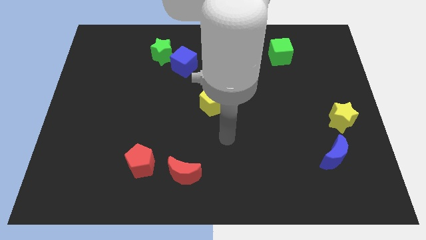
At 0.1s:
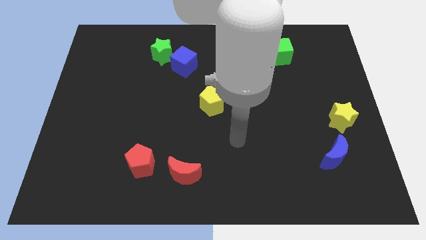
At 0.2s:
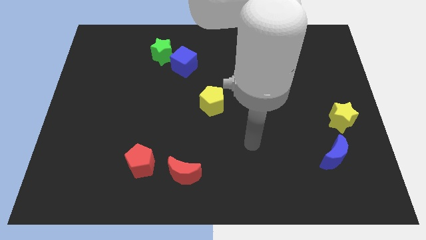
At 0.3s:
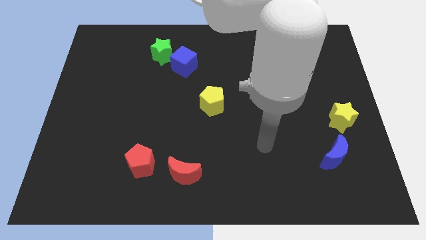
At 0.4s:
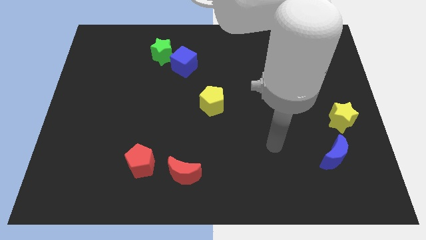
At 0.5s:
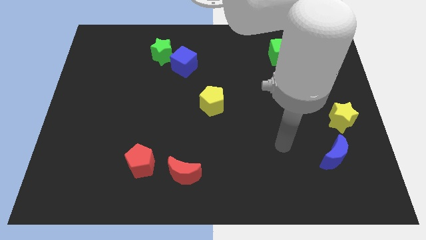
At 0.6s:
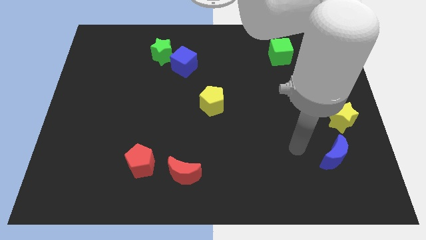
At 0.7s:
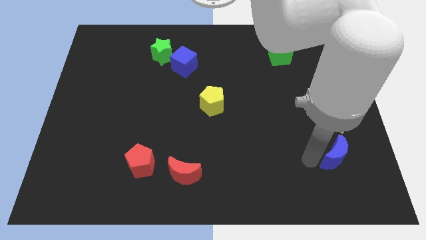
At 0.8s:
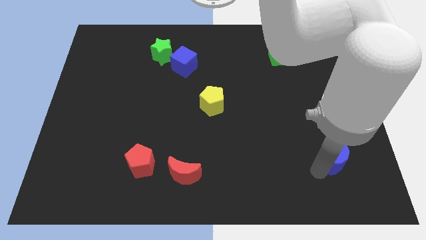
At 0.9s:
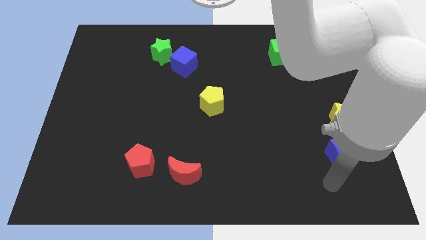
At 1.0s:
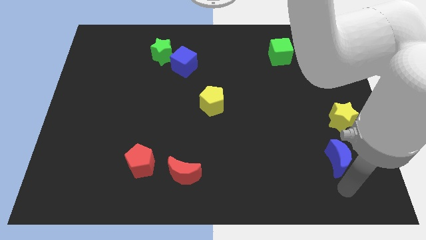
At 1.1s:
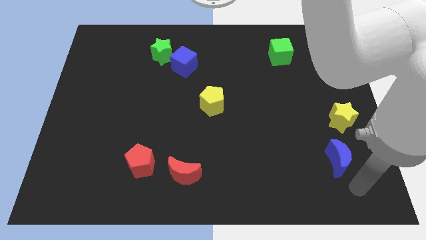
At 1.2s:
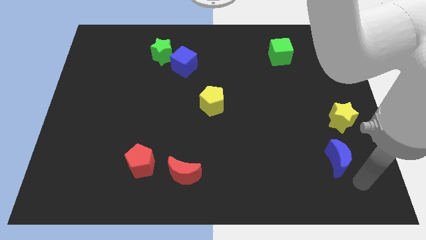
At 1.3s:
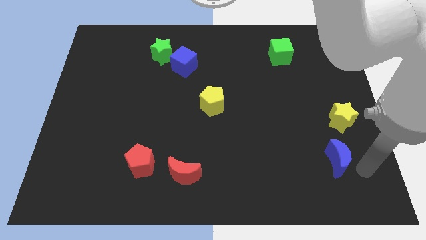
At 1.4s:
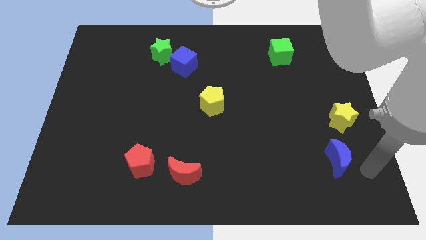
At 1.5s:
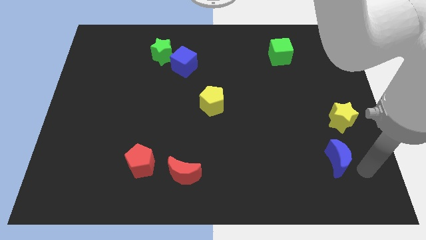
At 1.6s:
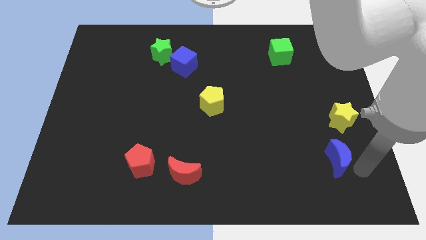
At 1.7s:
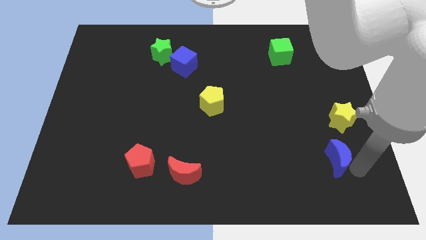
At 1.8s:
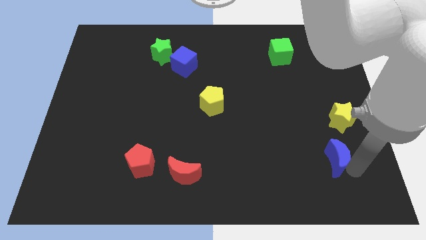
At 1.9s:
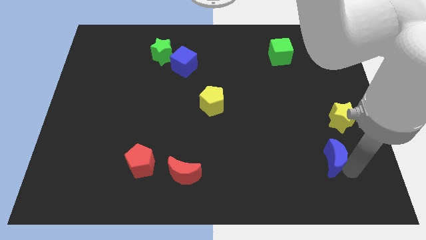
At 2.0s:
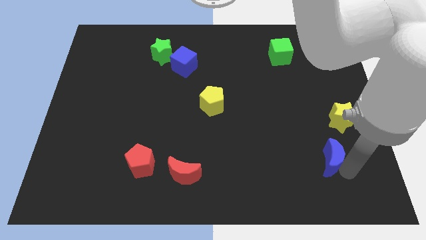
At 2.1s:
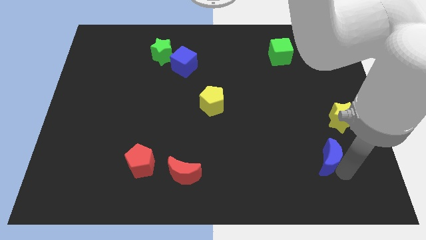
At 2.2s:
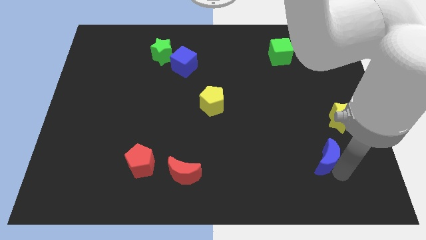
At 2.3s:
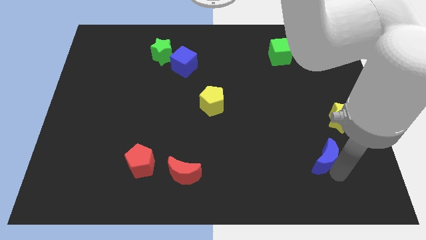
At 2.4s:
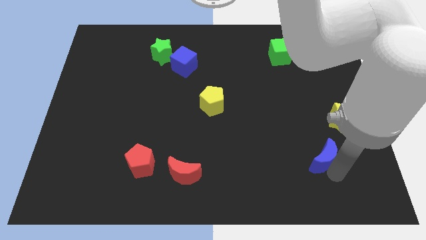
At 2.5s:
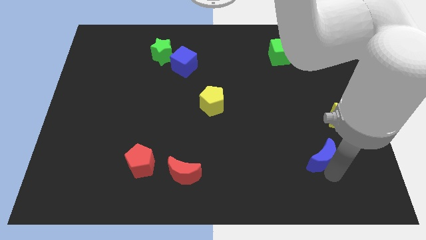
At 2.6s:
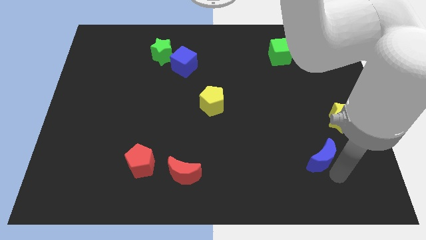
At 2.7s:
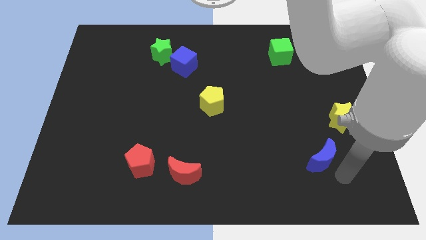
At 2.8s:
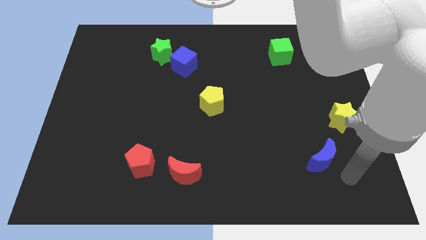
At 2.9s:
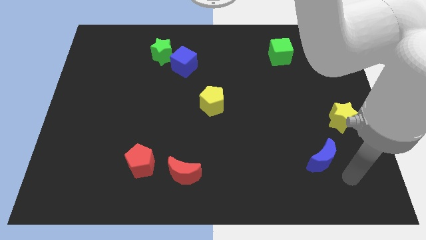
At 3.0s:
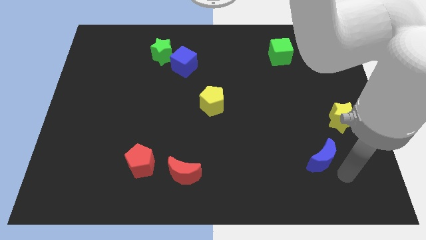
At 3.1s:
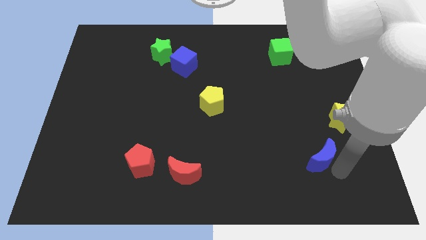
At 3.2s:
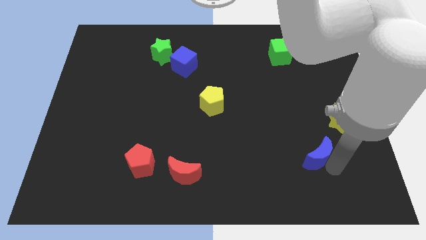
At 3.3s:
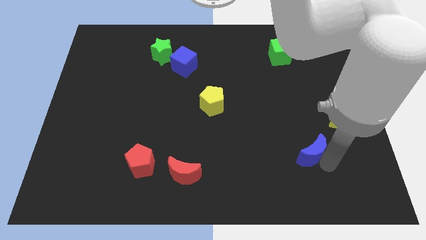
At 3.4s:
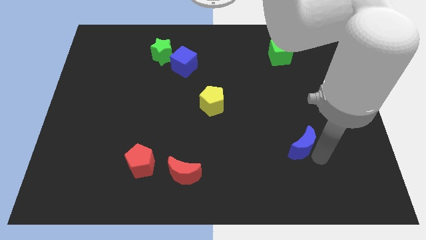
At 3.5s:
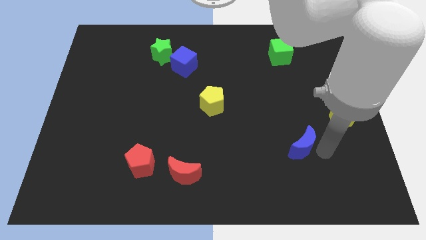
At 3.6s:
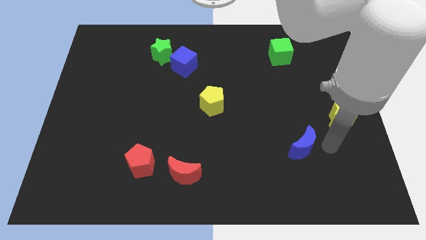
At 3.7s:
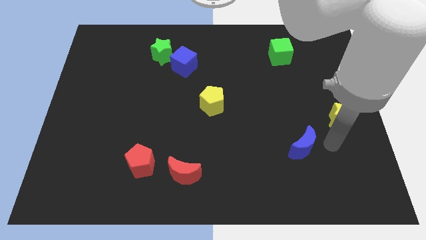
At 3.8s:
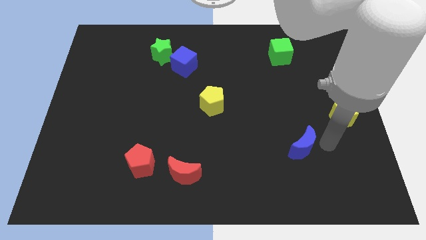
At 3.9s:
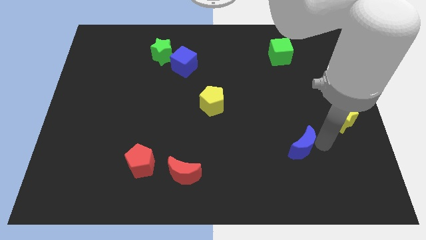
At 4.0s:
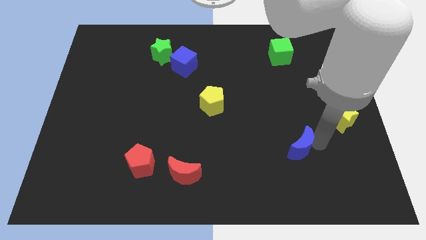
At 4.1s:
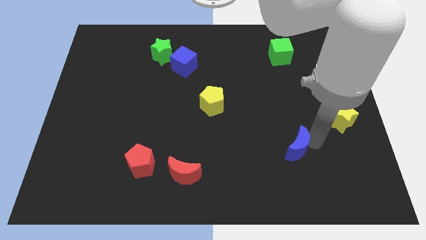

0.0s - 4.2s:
push the blue moon left a little bit

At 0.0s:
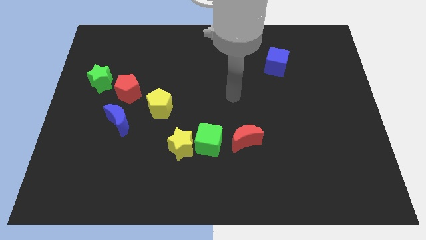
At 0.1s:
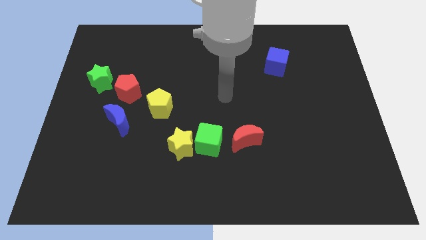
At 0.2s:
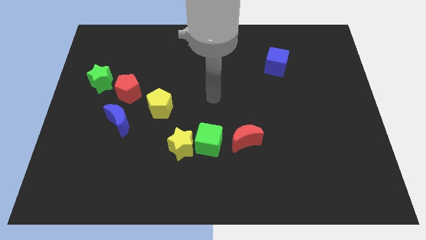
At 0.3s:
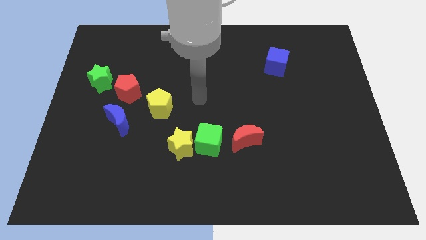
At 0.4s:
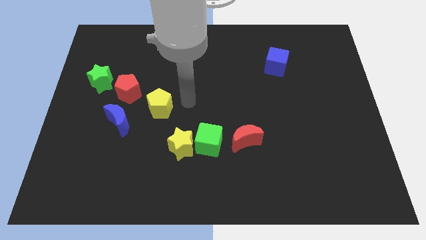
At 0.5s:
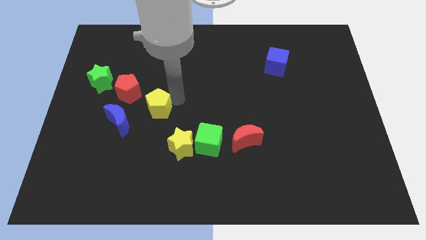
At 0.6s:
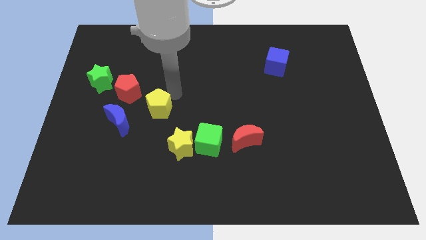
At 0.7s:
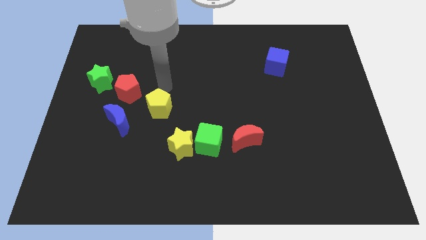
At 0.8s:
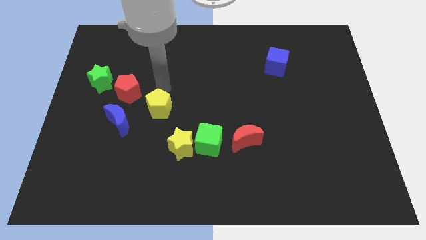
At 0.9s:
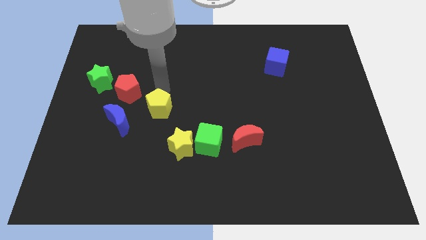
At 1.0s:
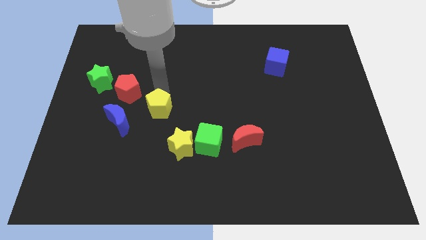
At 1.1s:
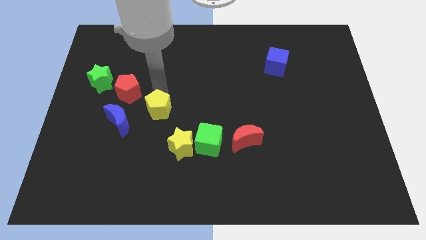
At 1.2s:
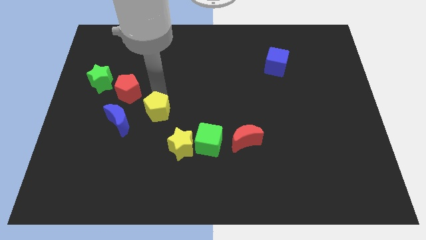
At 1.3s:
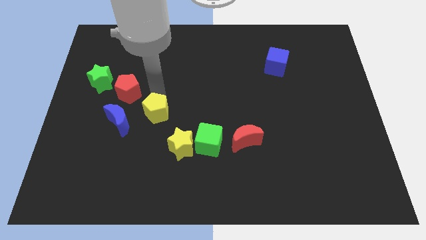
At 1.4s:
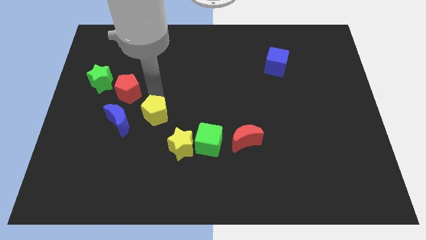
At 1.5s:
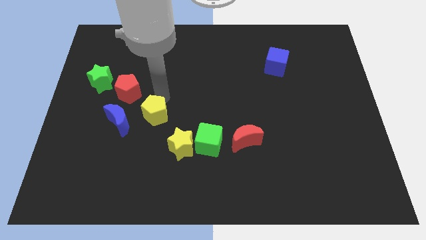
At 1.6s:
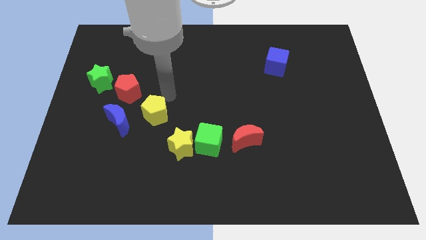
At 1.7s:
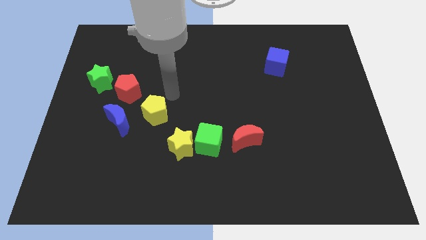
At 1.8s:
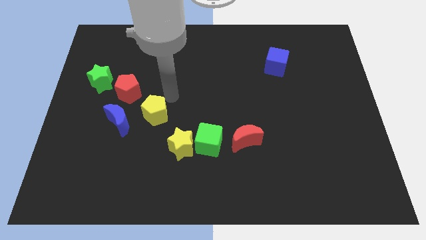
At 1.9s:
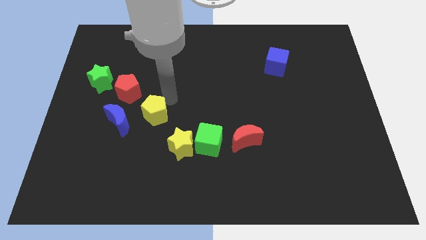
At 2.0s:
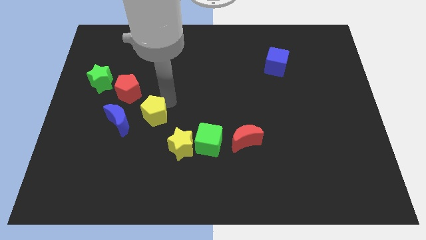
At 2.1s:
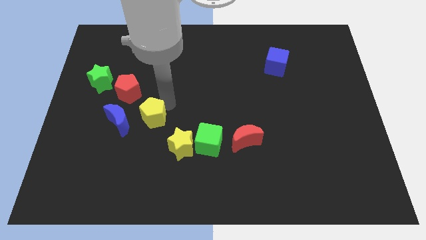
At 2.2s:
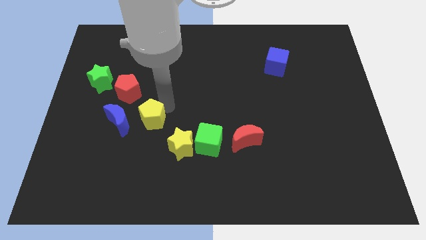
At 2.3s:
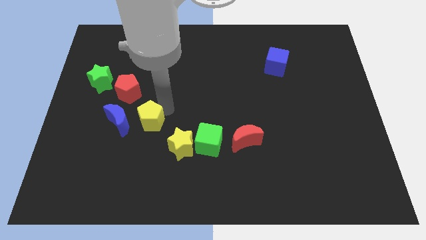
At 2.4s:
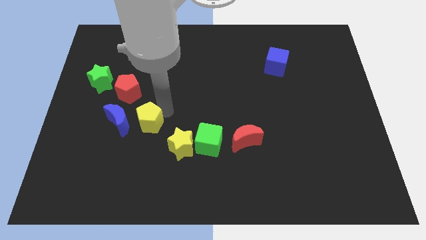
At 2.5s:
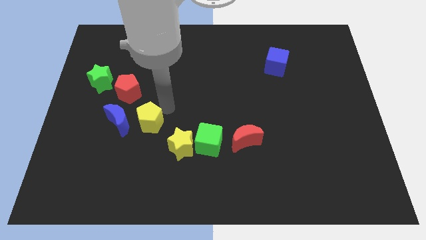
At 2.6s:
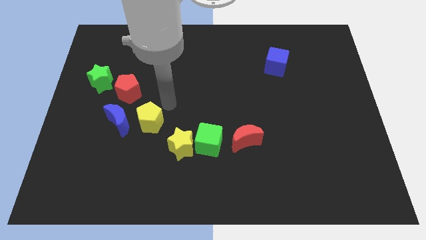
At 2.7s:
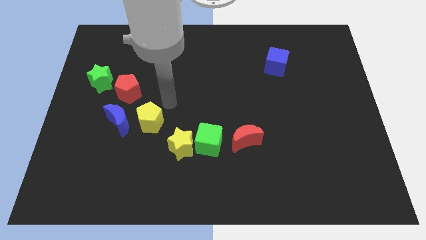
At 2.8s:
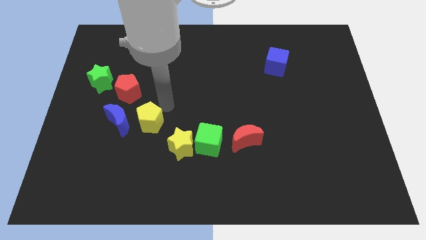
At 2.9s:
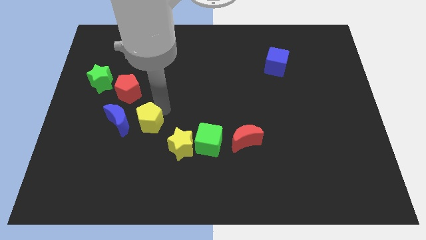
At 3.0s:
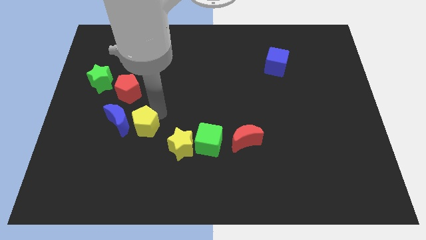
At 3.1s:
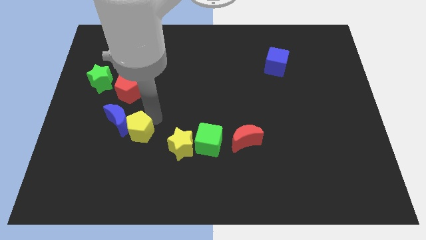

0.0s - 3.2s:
slightly slide the yellow pentagon diagonally downwards and left

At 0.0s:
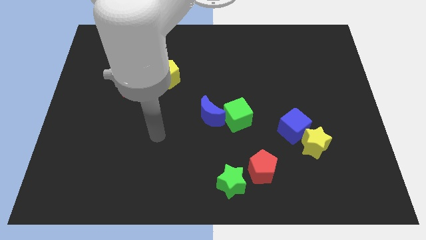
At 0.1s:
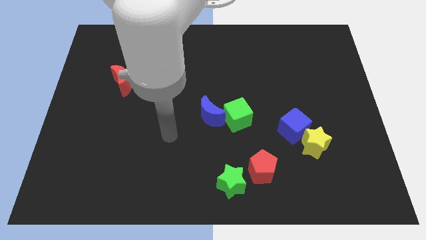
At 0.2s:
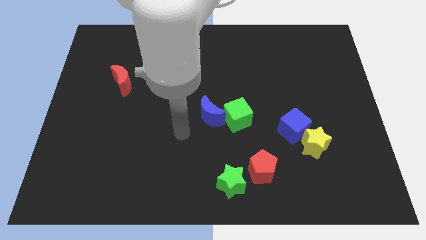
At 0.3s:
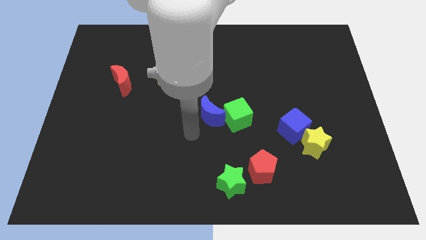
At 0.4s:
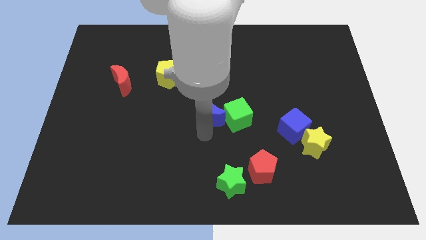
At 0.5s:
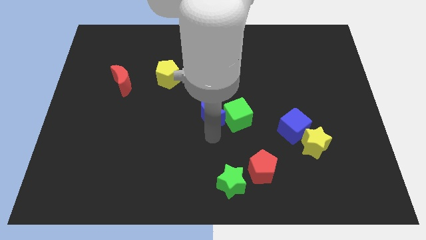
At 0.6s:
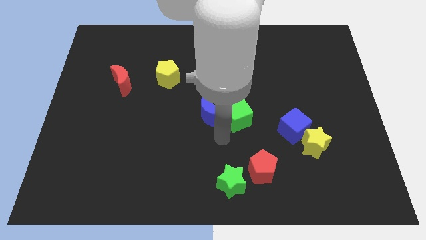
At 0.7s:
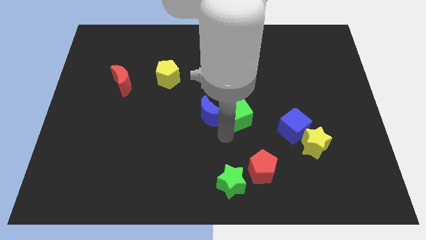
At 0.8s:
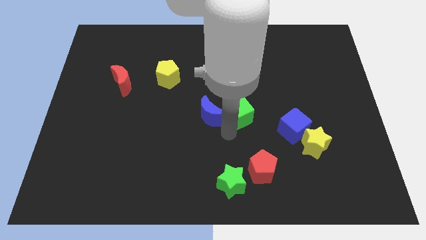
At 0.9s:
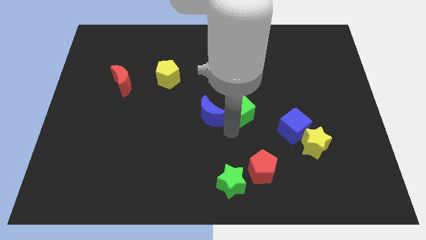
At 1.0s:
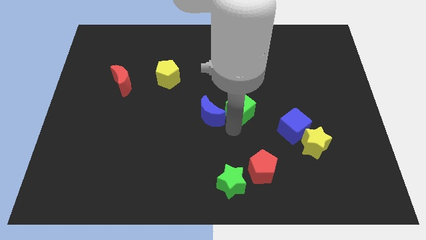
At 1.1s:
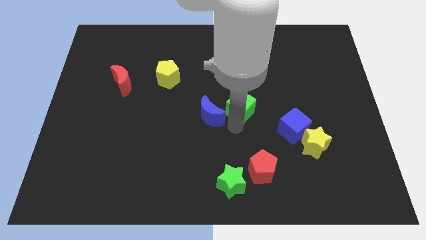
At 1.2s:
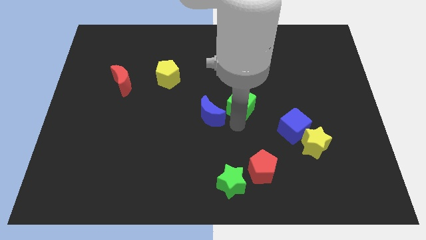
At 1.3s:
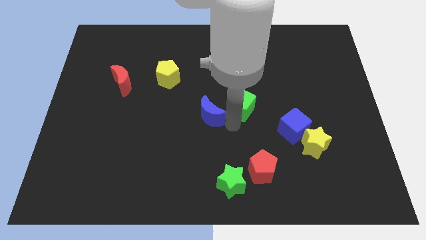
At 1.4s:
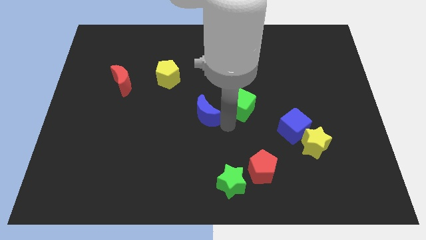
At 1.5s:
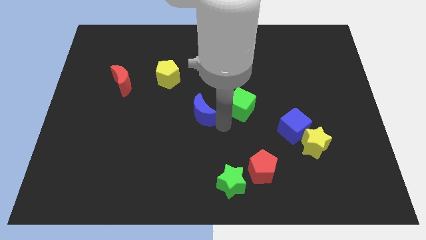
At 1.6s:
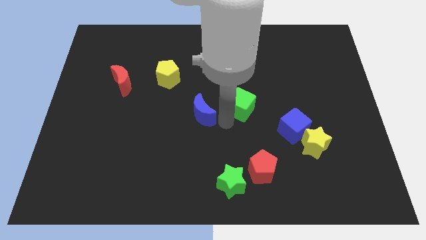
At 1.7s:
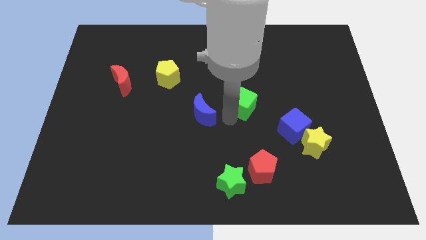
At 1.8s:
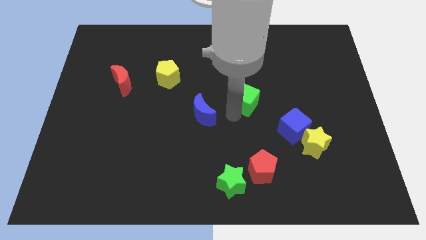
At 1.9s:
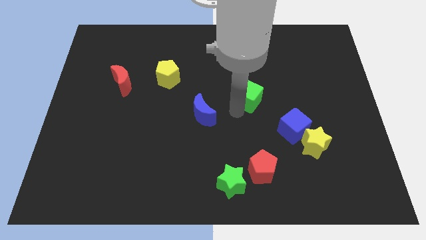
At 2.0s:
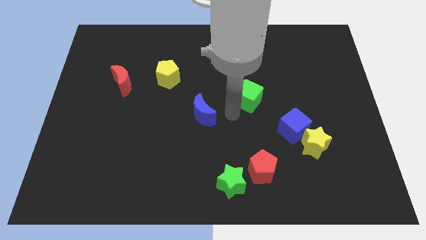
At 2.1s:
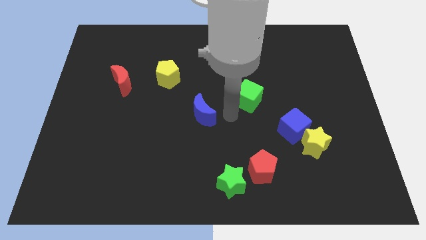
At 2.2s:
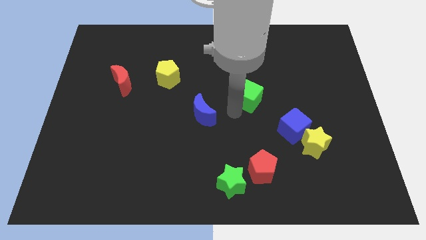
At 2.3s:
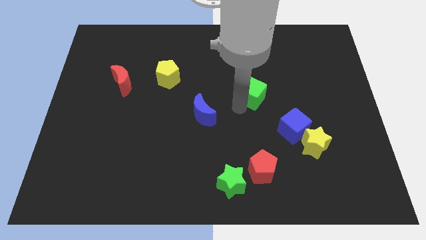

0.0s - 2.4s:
push the green cube up and to the right slightly
